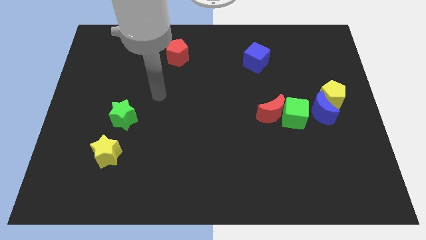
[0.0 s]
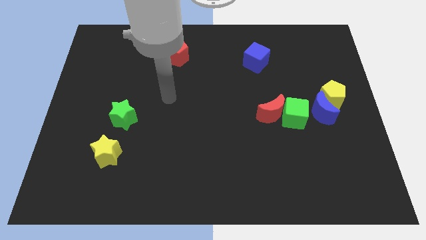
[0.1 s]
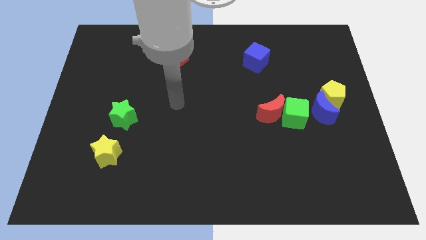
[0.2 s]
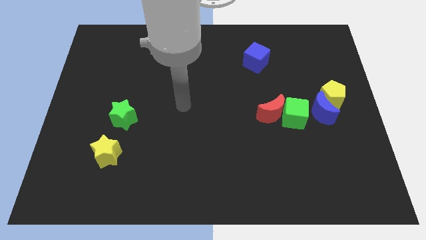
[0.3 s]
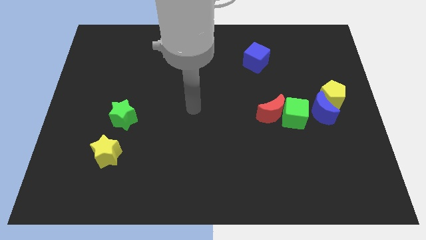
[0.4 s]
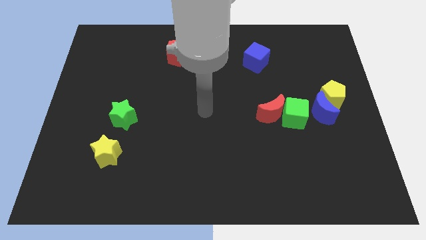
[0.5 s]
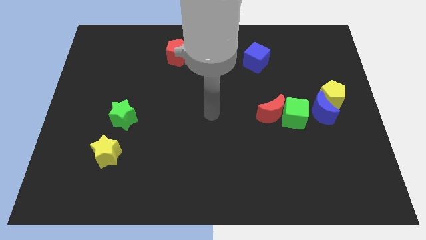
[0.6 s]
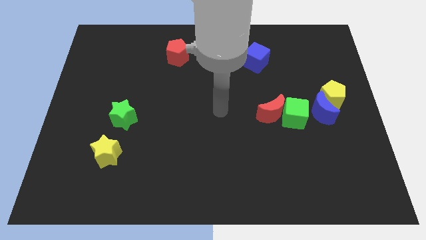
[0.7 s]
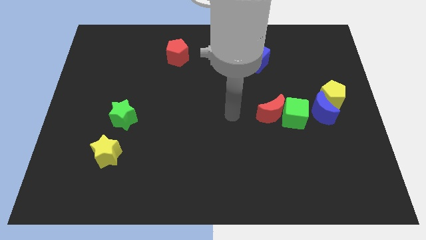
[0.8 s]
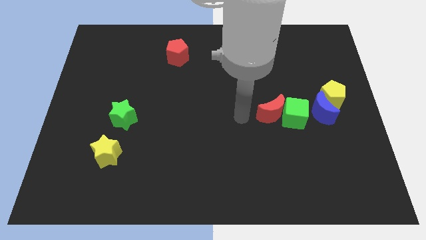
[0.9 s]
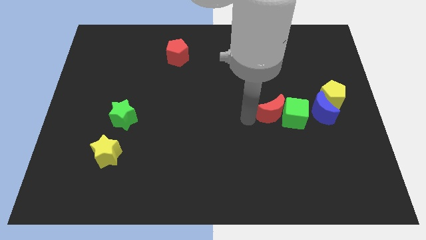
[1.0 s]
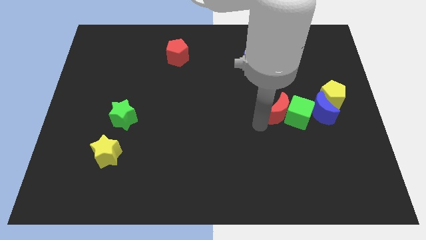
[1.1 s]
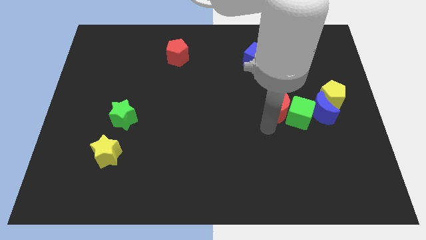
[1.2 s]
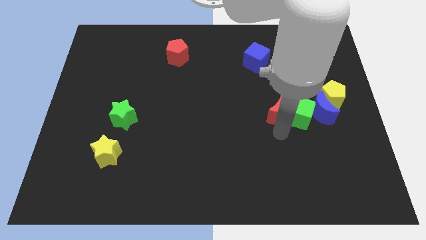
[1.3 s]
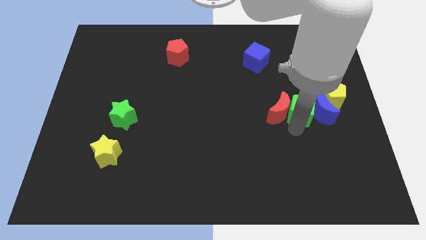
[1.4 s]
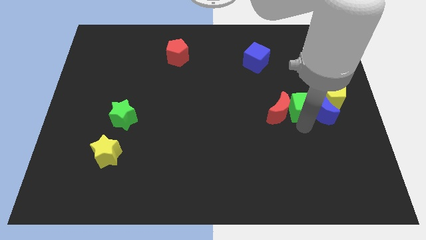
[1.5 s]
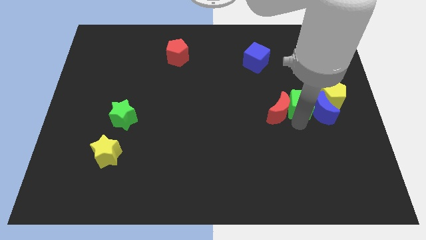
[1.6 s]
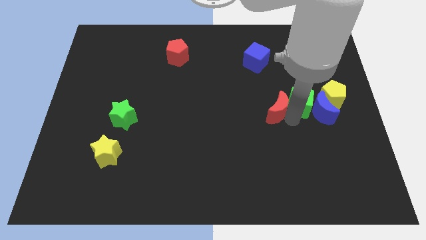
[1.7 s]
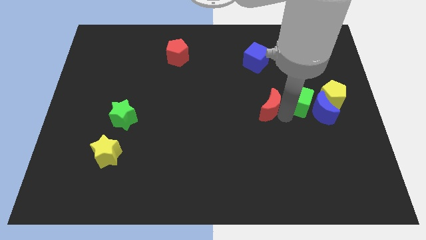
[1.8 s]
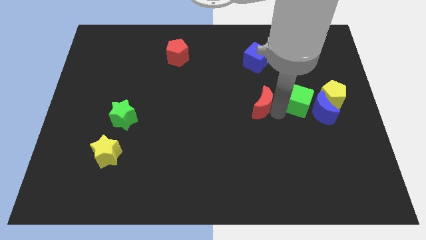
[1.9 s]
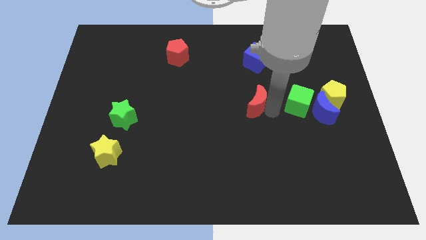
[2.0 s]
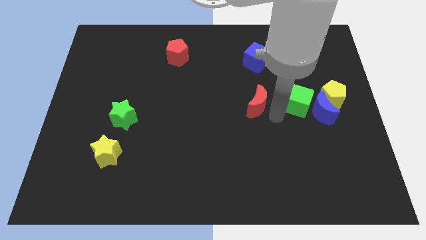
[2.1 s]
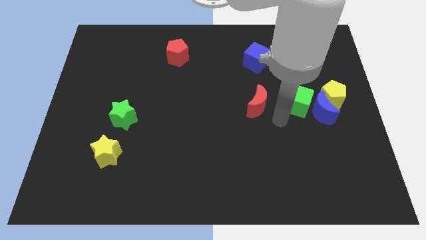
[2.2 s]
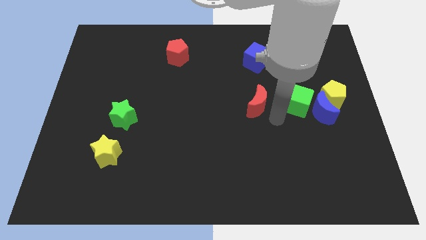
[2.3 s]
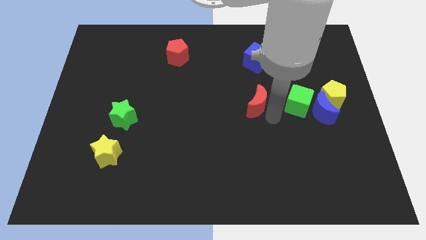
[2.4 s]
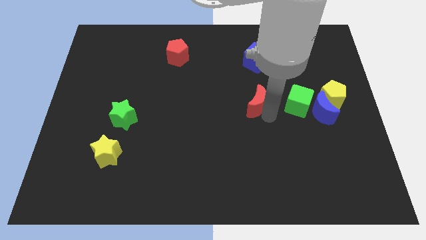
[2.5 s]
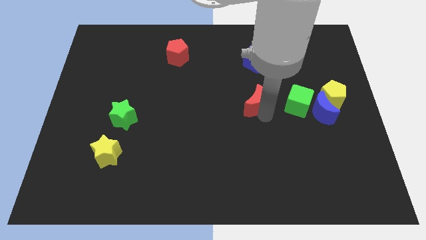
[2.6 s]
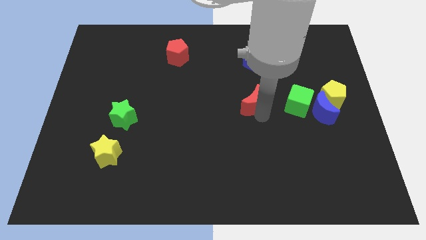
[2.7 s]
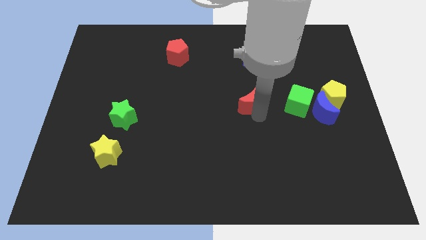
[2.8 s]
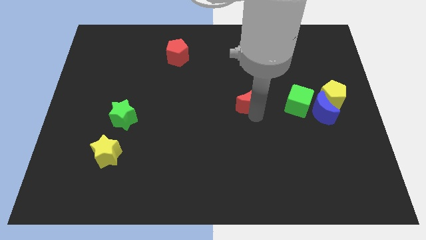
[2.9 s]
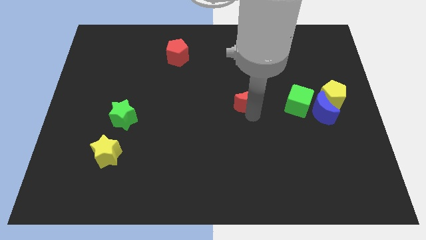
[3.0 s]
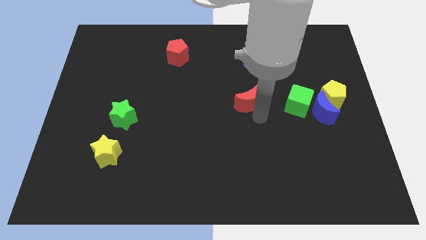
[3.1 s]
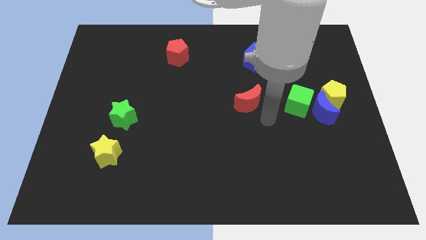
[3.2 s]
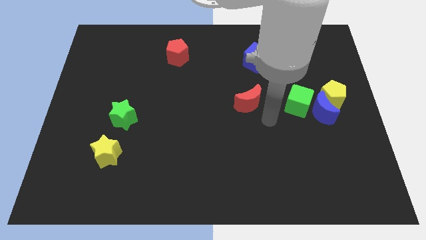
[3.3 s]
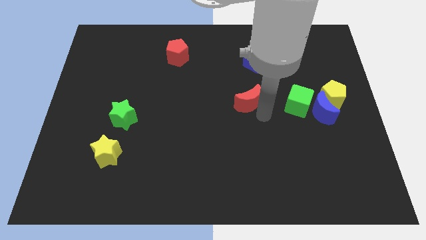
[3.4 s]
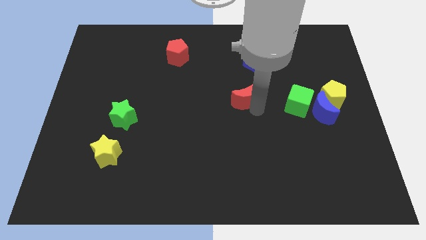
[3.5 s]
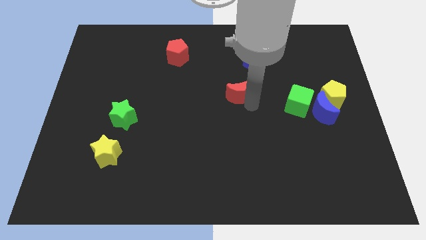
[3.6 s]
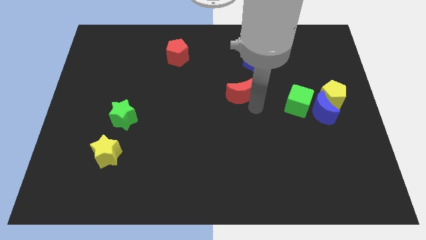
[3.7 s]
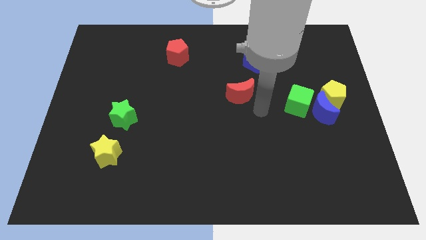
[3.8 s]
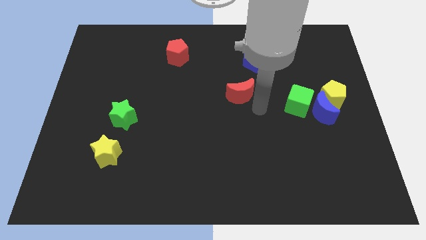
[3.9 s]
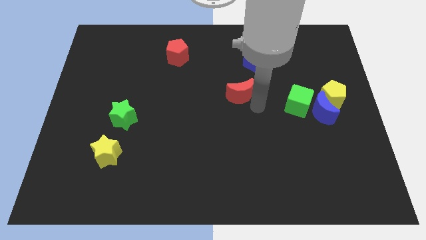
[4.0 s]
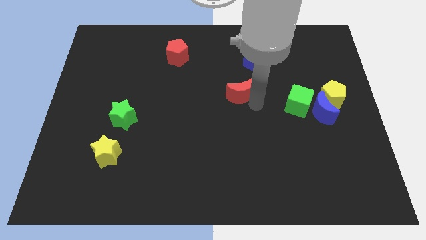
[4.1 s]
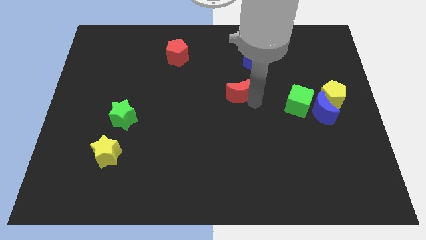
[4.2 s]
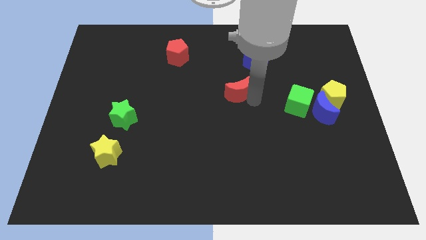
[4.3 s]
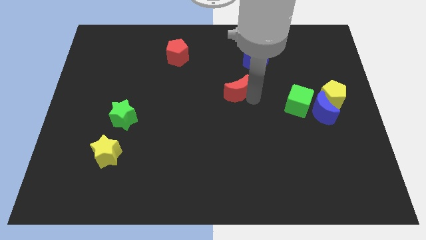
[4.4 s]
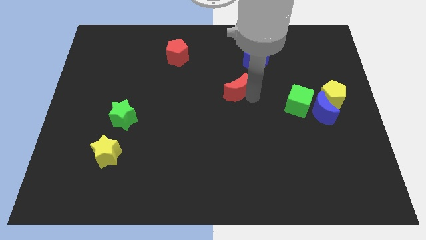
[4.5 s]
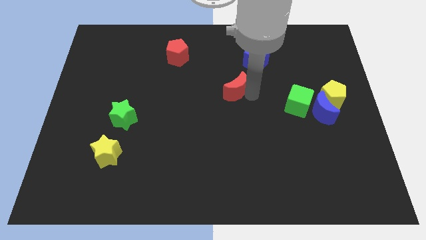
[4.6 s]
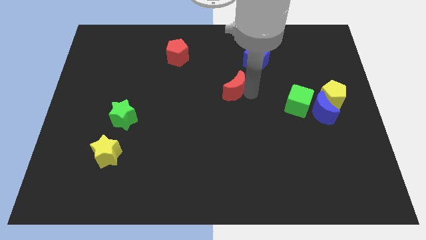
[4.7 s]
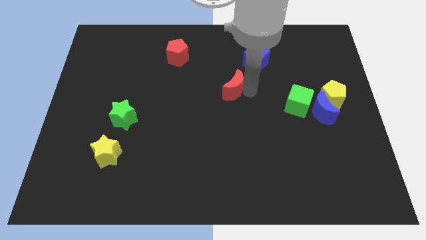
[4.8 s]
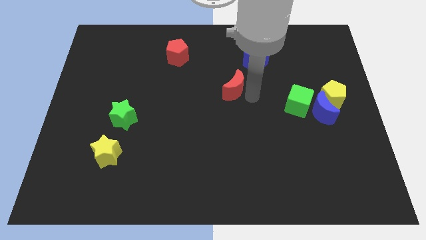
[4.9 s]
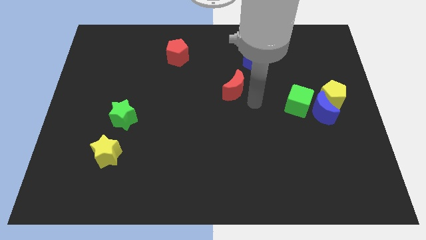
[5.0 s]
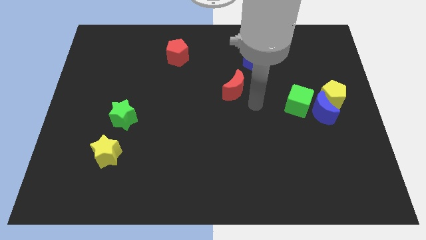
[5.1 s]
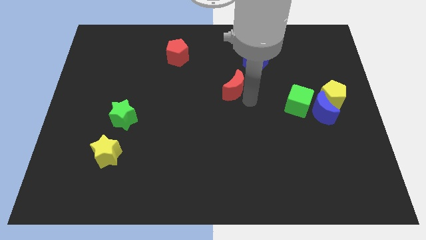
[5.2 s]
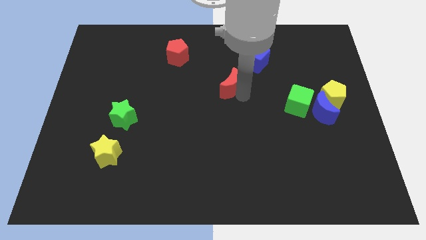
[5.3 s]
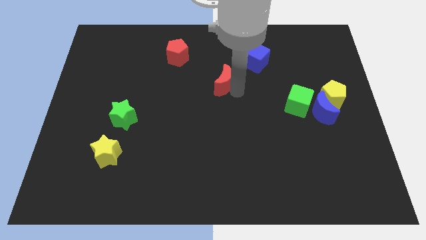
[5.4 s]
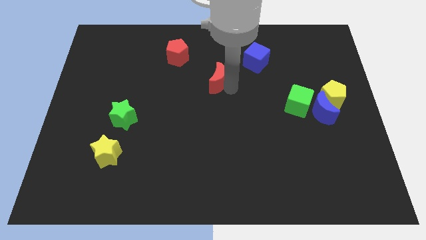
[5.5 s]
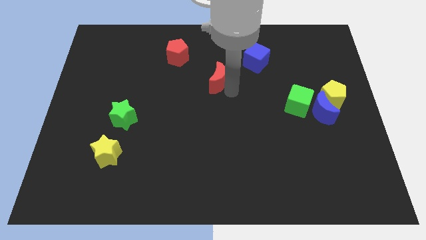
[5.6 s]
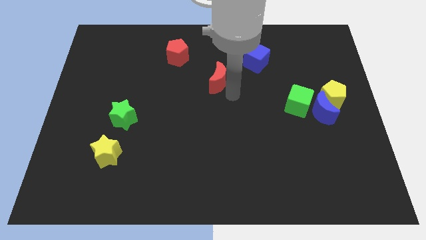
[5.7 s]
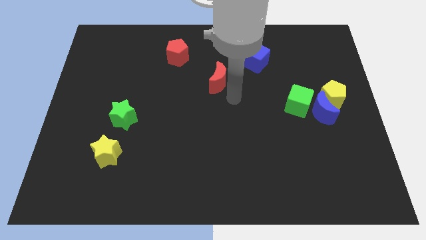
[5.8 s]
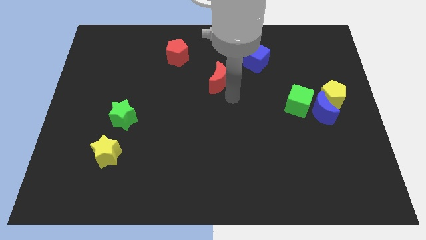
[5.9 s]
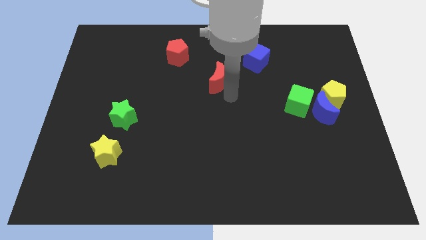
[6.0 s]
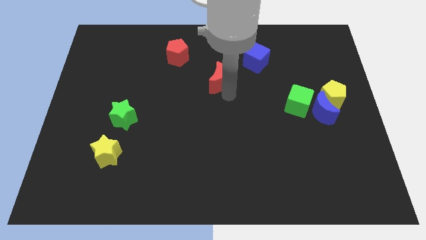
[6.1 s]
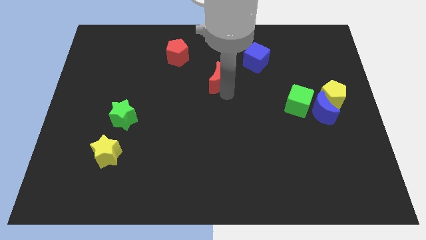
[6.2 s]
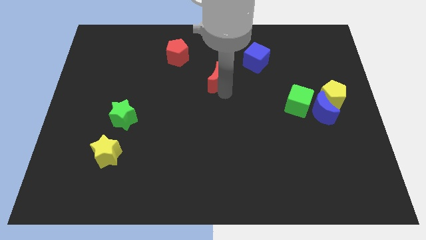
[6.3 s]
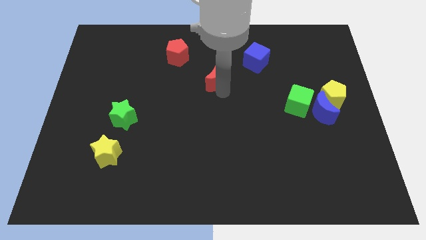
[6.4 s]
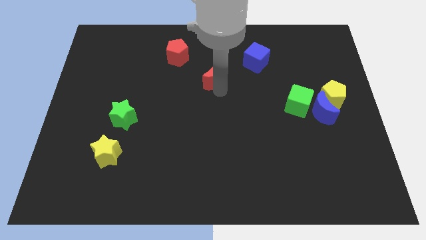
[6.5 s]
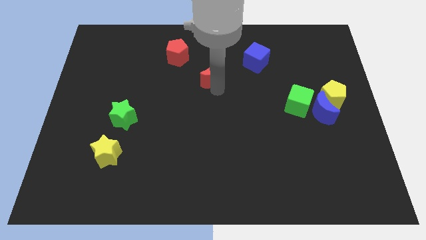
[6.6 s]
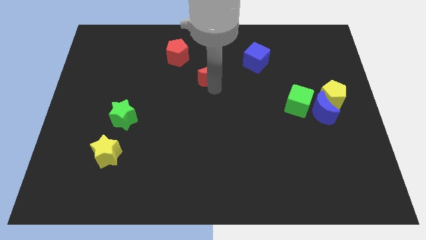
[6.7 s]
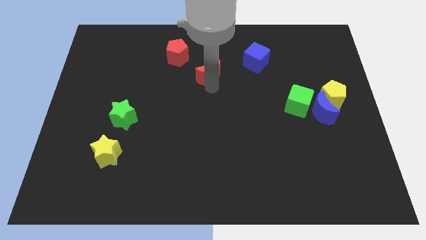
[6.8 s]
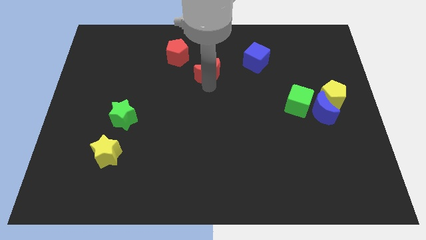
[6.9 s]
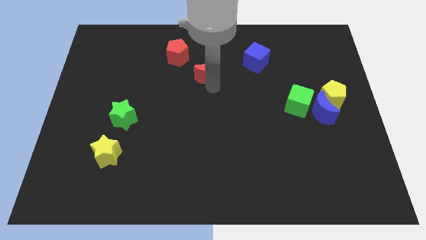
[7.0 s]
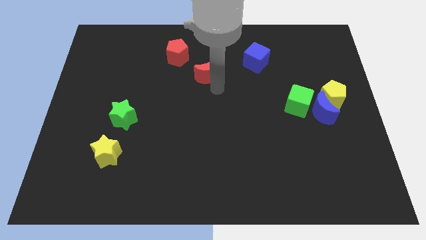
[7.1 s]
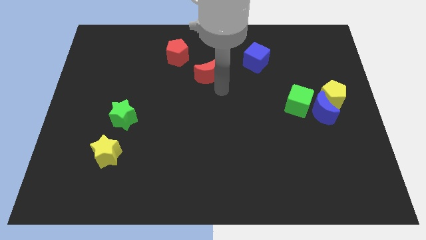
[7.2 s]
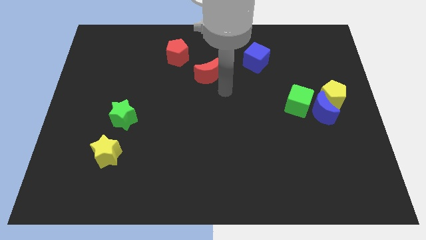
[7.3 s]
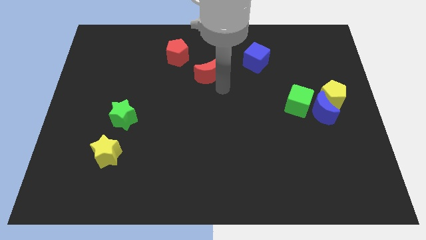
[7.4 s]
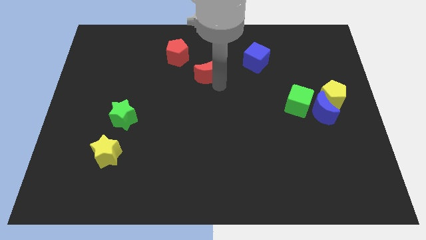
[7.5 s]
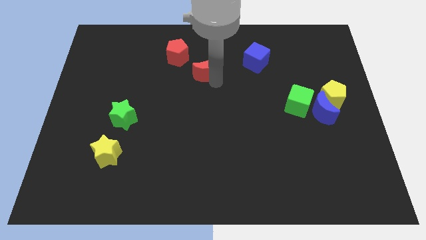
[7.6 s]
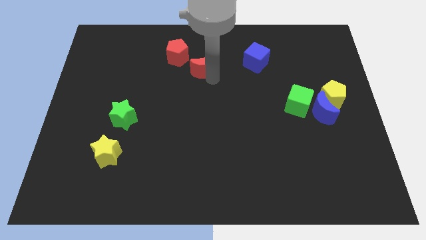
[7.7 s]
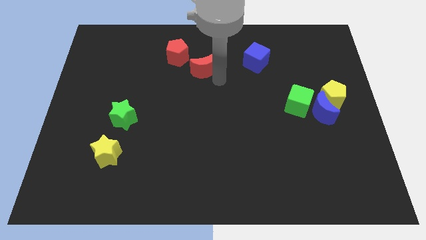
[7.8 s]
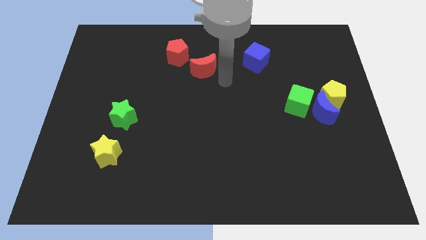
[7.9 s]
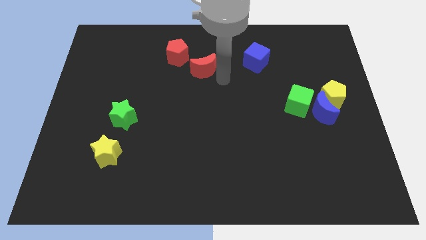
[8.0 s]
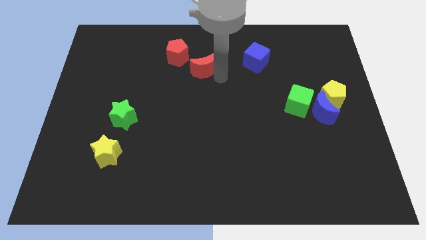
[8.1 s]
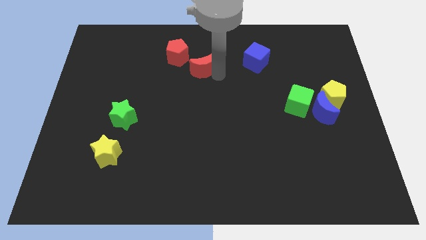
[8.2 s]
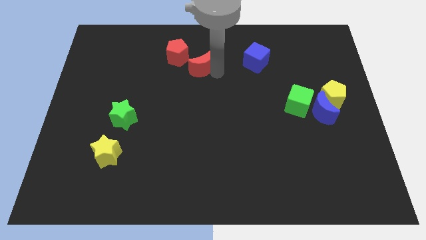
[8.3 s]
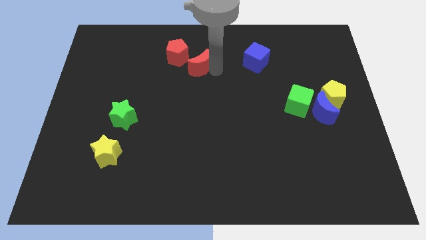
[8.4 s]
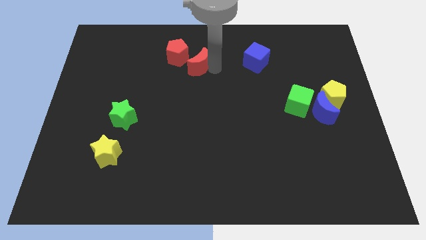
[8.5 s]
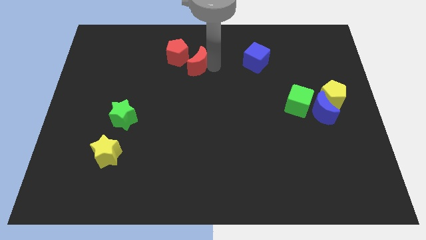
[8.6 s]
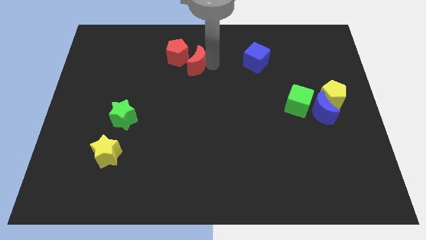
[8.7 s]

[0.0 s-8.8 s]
slide the red moon close to the red pentagon
